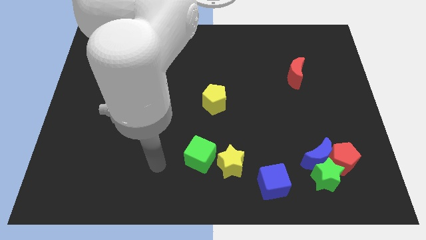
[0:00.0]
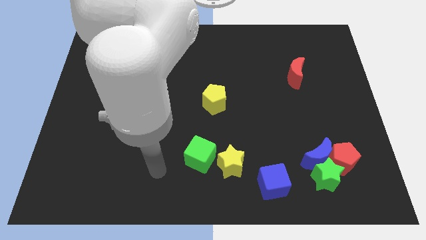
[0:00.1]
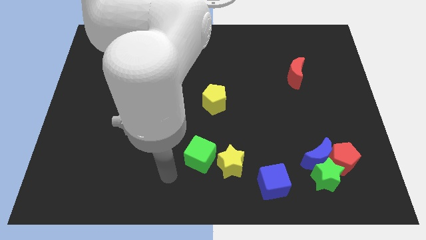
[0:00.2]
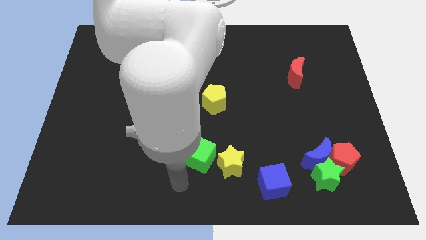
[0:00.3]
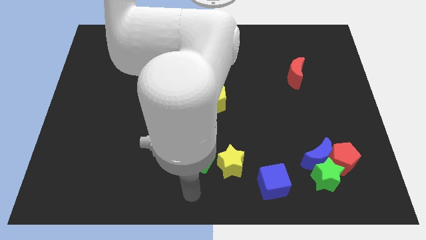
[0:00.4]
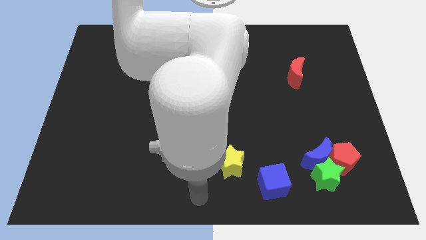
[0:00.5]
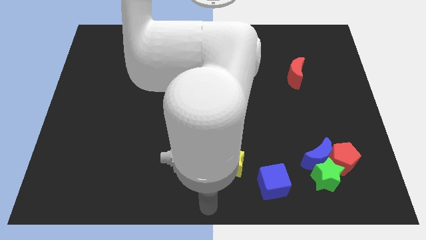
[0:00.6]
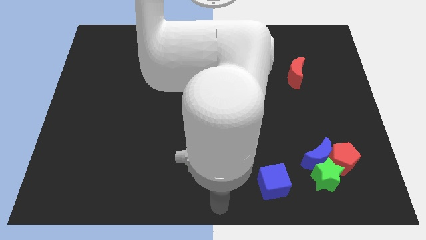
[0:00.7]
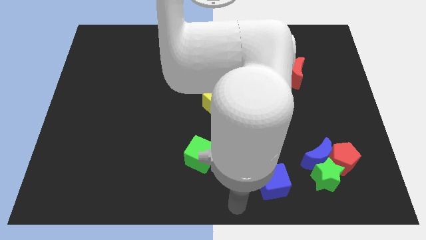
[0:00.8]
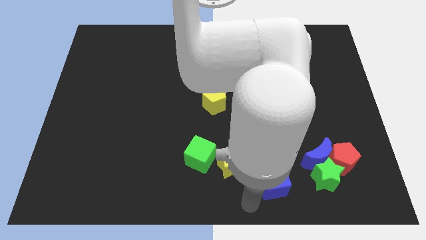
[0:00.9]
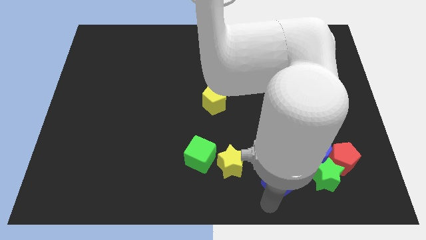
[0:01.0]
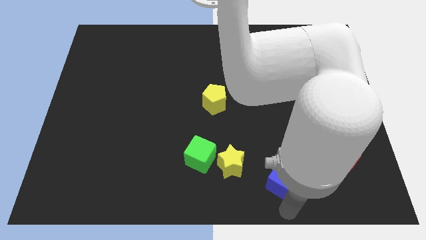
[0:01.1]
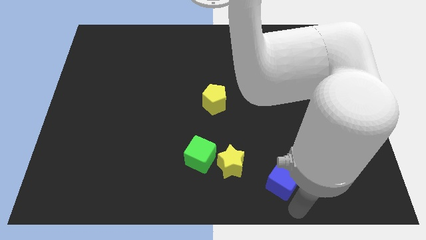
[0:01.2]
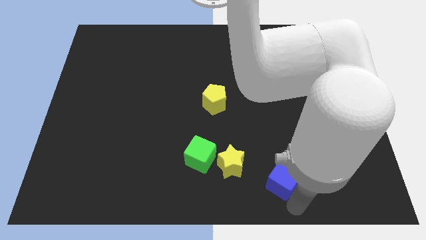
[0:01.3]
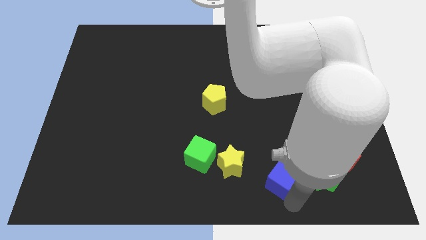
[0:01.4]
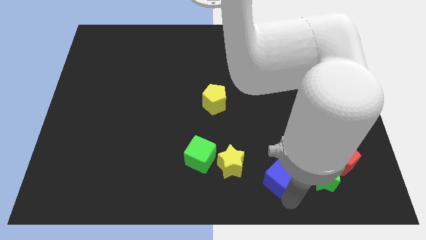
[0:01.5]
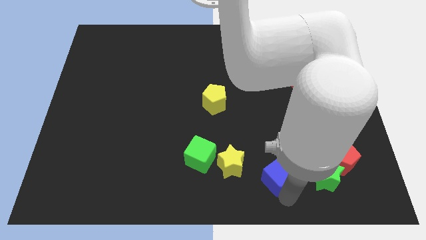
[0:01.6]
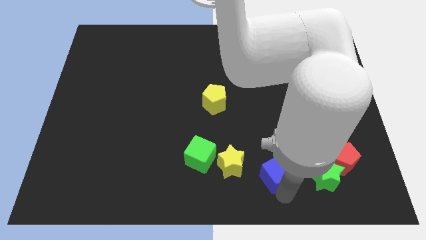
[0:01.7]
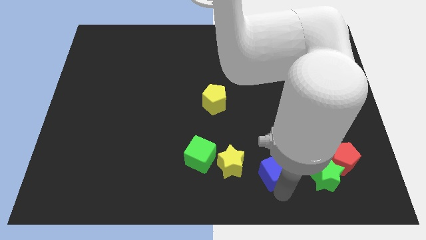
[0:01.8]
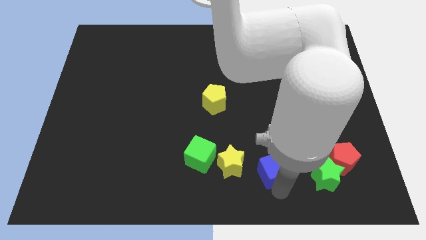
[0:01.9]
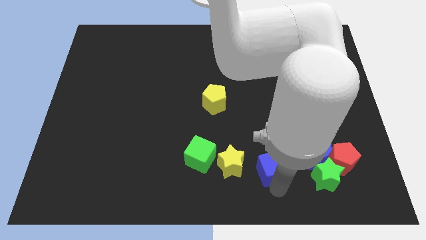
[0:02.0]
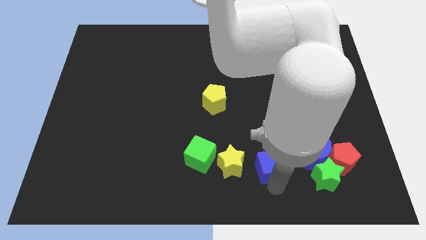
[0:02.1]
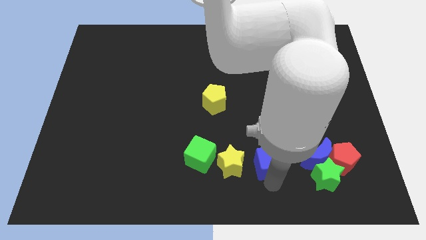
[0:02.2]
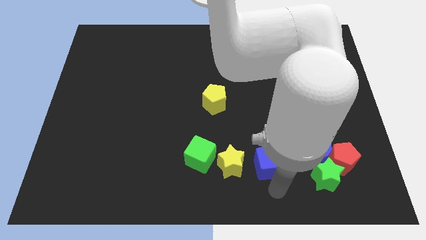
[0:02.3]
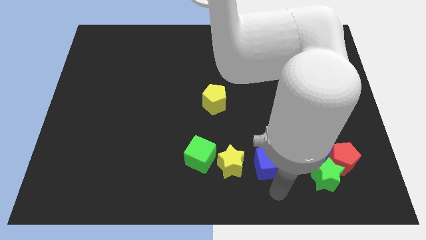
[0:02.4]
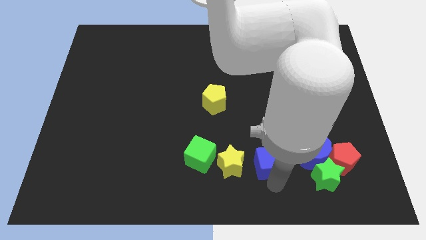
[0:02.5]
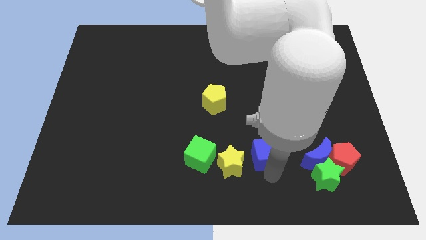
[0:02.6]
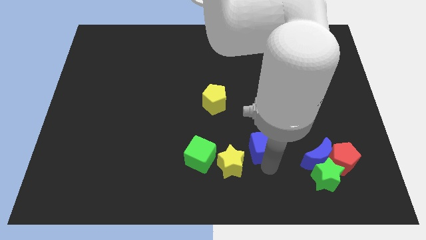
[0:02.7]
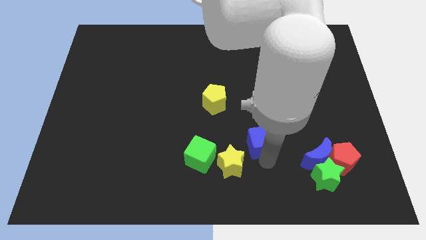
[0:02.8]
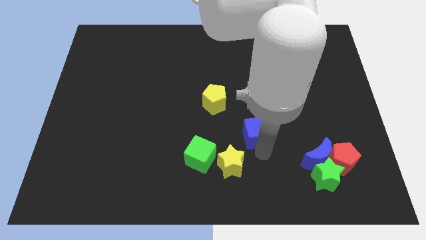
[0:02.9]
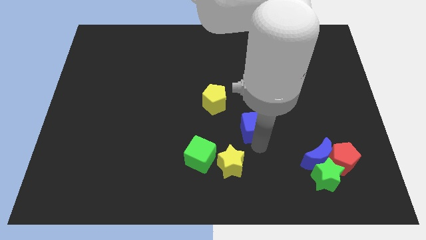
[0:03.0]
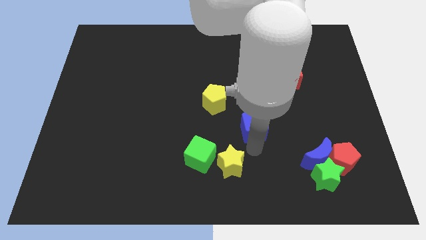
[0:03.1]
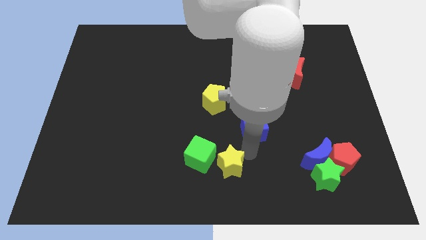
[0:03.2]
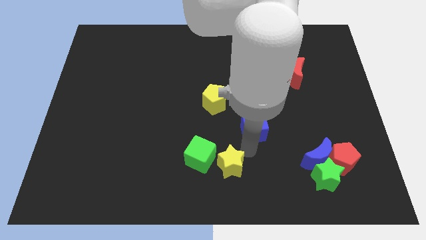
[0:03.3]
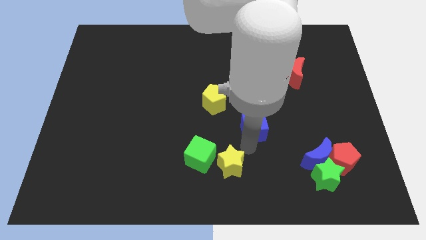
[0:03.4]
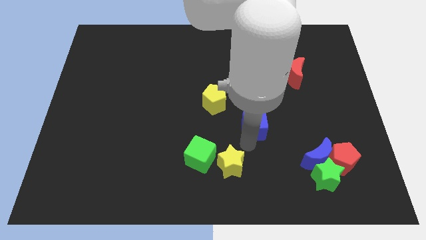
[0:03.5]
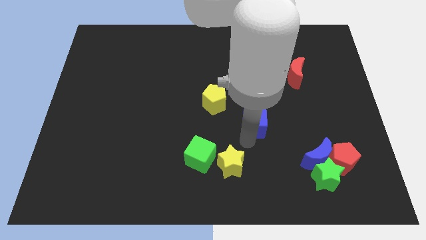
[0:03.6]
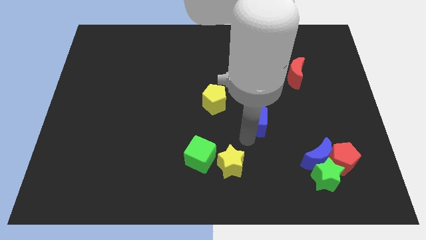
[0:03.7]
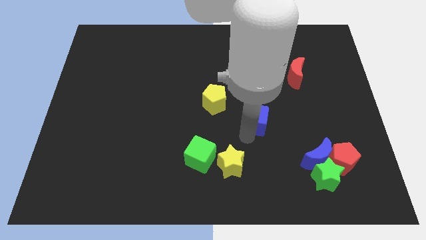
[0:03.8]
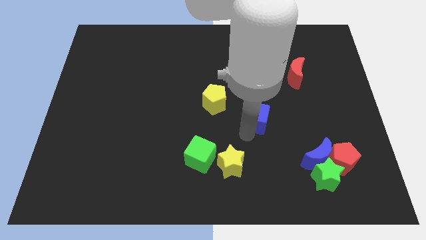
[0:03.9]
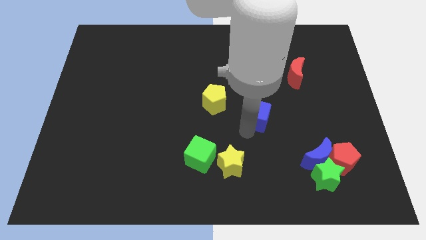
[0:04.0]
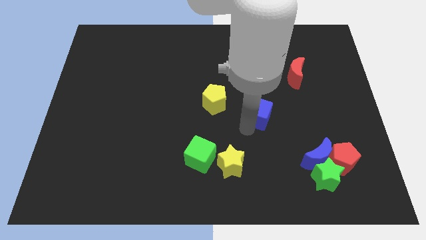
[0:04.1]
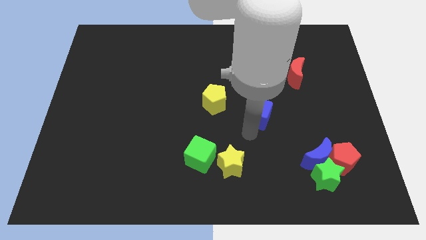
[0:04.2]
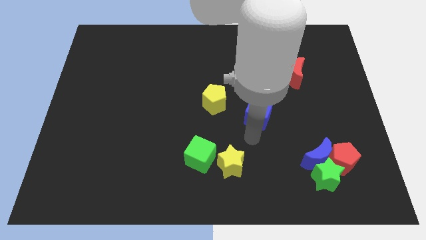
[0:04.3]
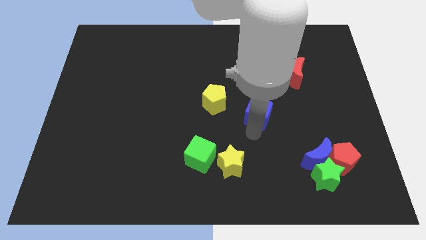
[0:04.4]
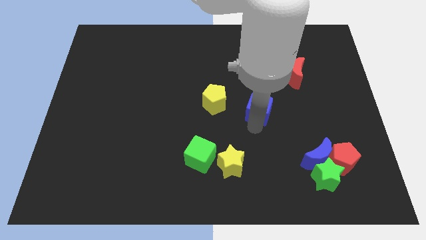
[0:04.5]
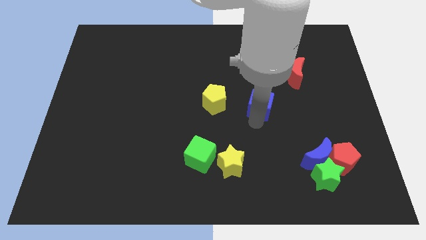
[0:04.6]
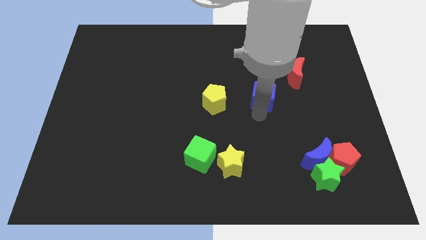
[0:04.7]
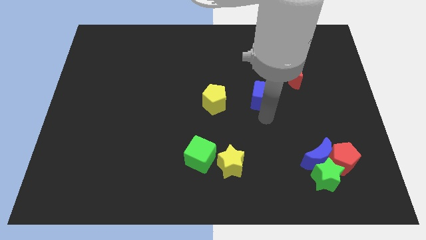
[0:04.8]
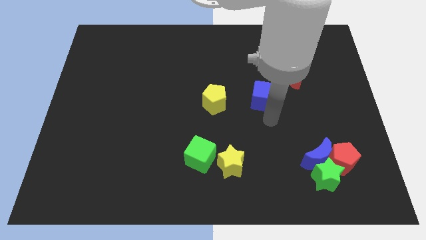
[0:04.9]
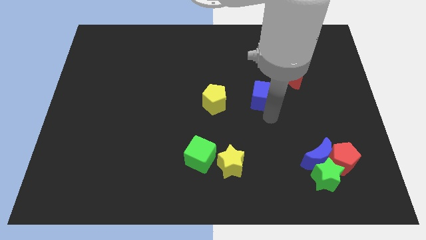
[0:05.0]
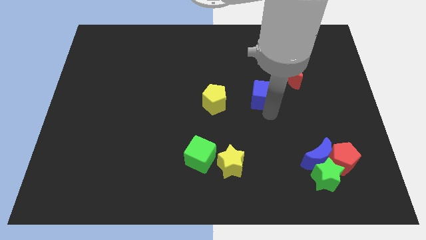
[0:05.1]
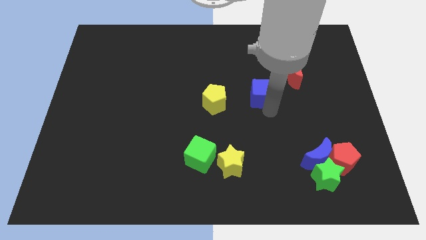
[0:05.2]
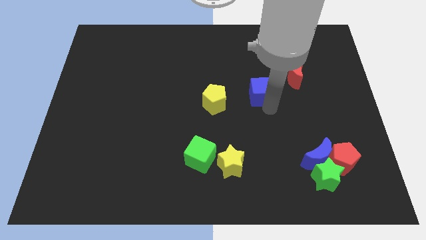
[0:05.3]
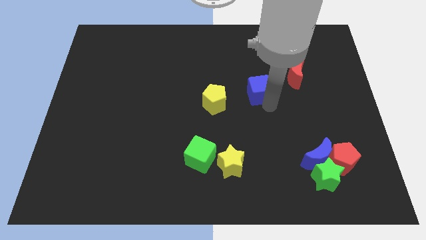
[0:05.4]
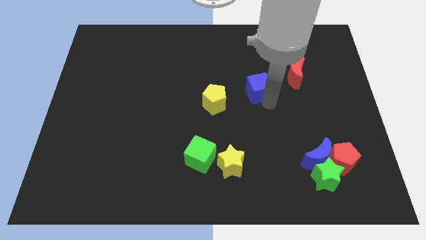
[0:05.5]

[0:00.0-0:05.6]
move the blue cube to the left of the red moon

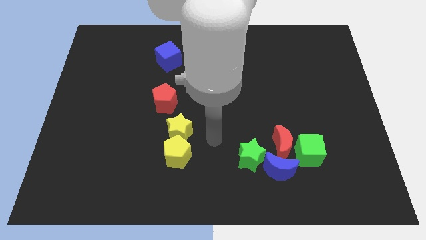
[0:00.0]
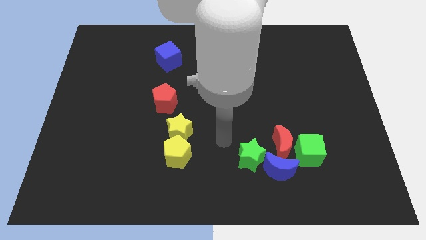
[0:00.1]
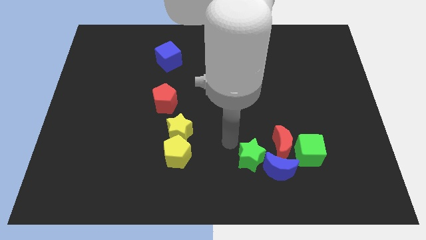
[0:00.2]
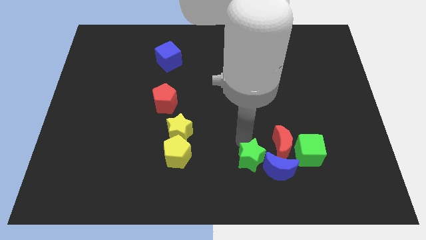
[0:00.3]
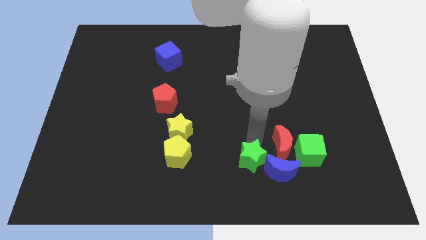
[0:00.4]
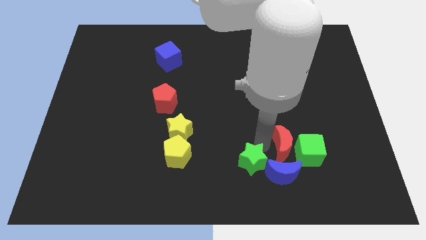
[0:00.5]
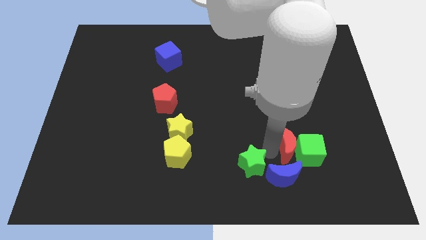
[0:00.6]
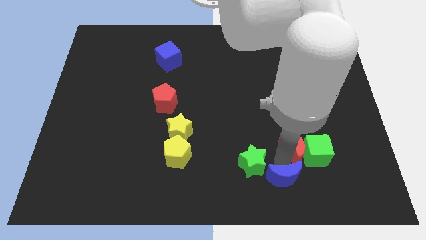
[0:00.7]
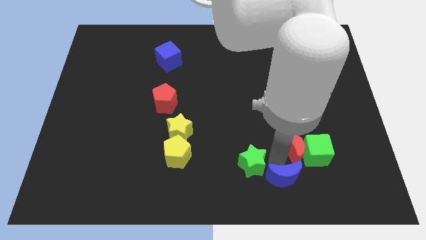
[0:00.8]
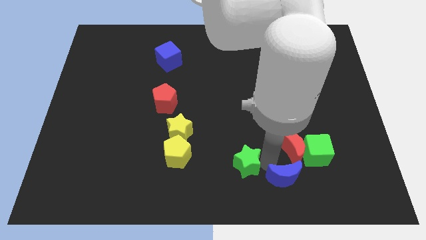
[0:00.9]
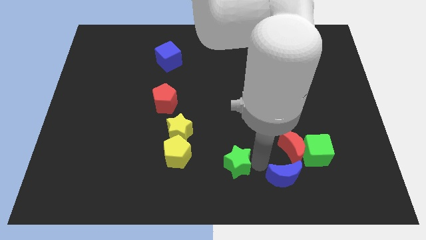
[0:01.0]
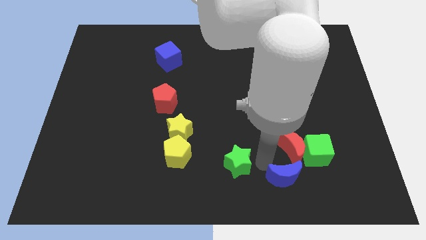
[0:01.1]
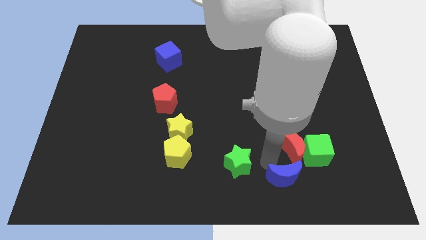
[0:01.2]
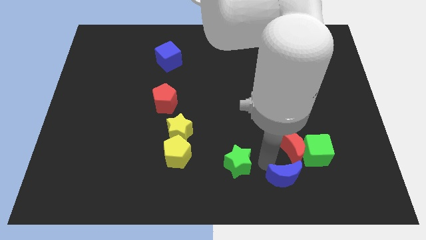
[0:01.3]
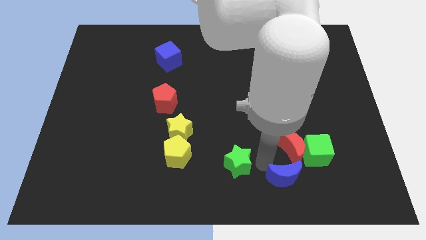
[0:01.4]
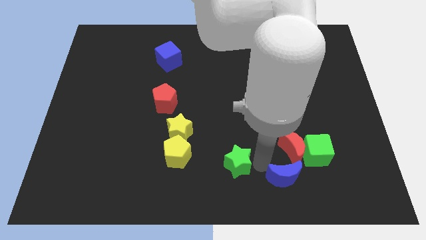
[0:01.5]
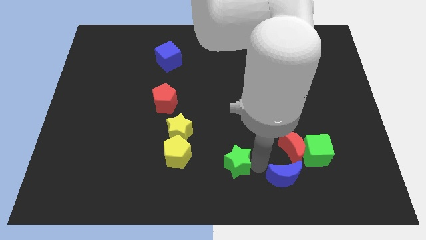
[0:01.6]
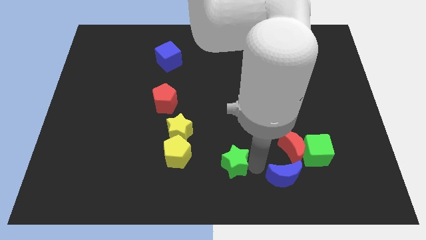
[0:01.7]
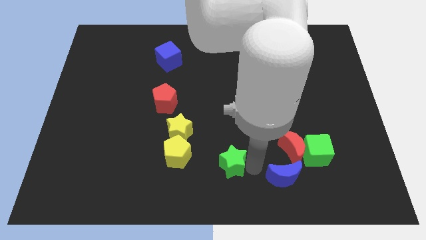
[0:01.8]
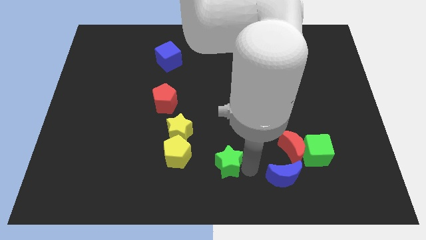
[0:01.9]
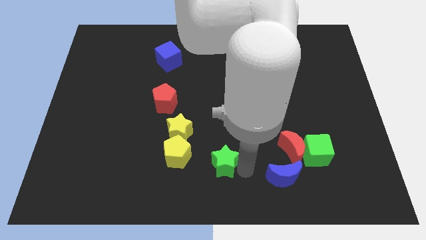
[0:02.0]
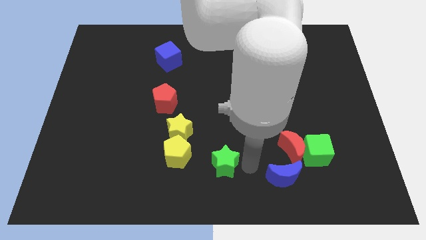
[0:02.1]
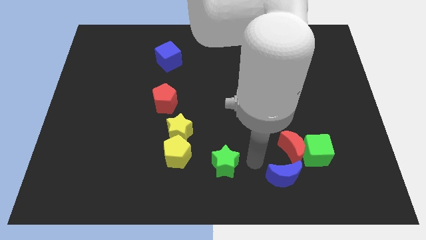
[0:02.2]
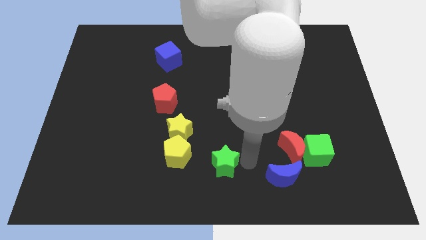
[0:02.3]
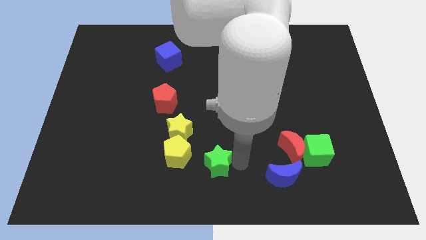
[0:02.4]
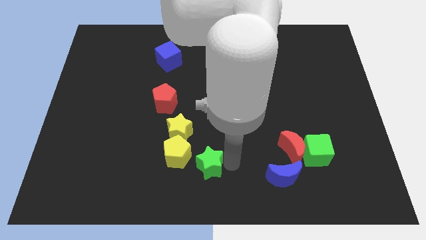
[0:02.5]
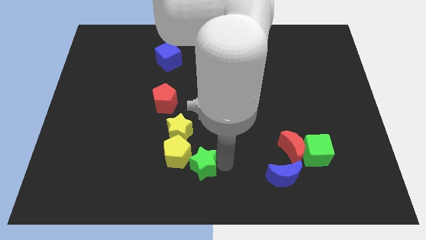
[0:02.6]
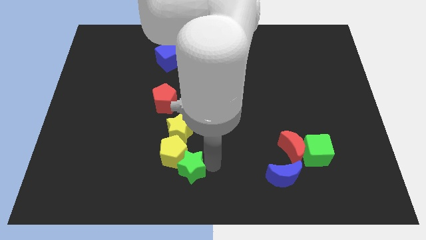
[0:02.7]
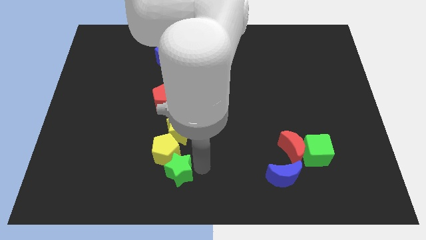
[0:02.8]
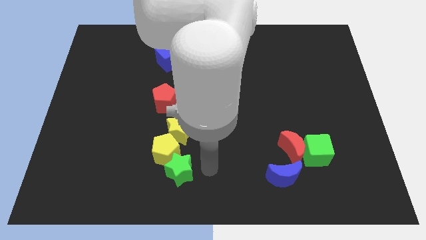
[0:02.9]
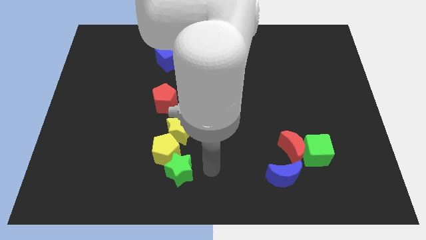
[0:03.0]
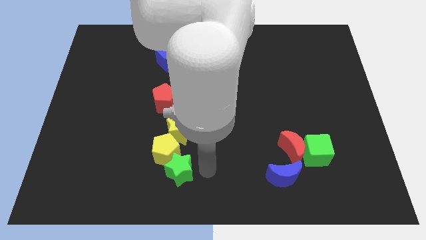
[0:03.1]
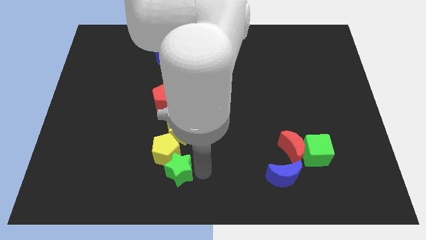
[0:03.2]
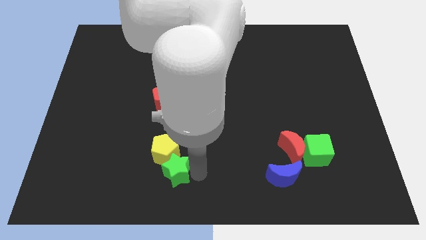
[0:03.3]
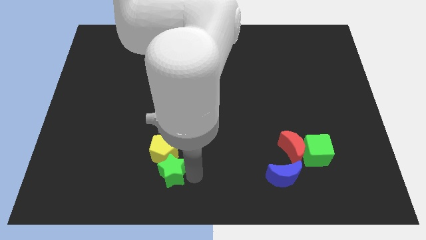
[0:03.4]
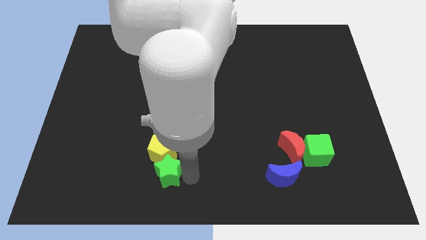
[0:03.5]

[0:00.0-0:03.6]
move the green star to the bottom left side of the yellow pentagon
